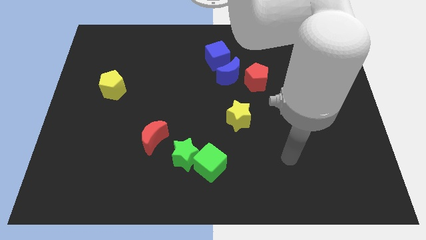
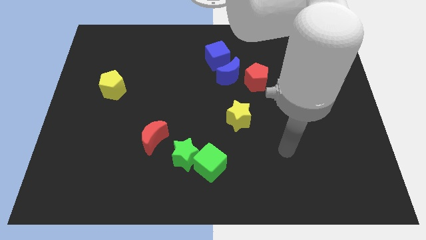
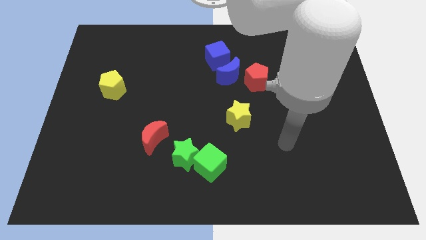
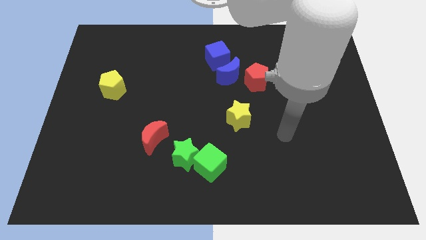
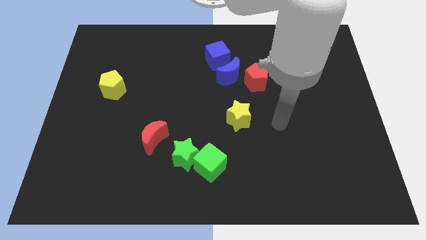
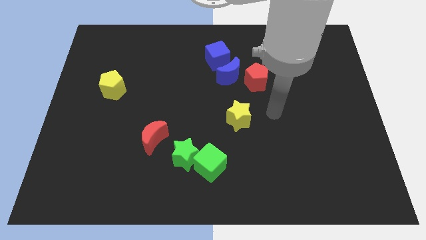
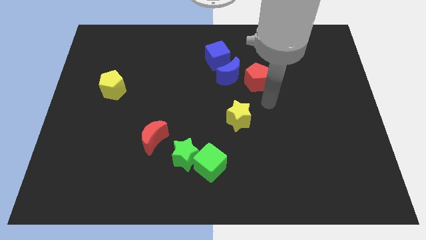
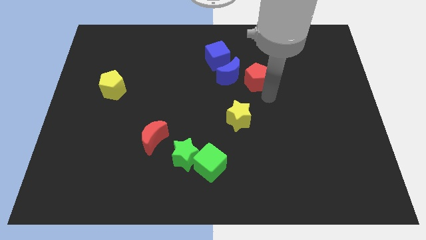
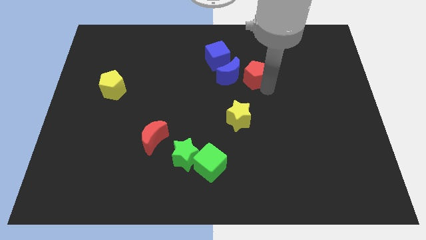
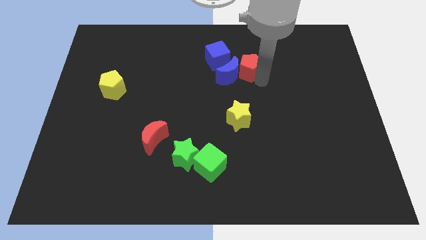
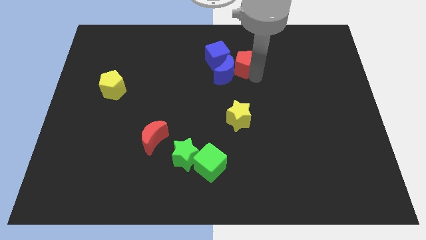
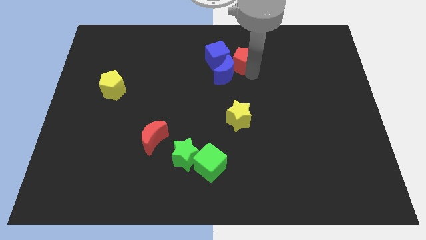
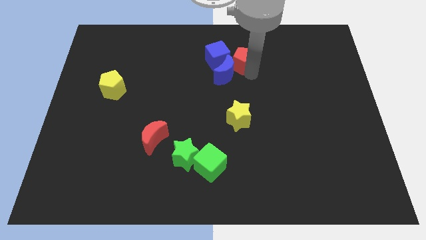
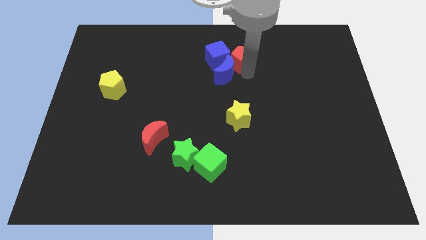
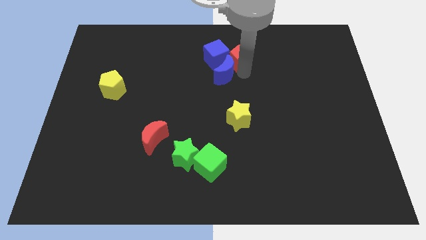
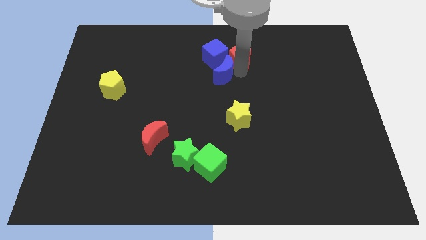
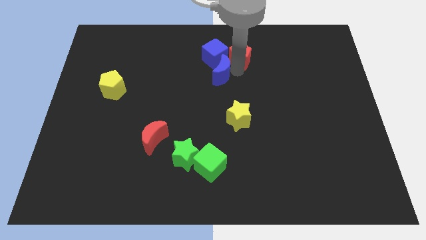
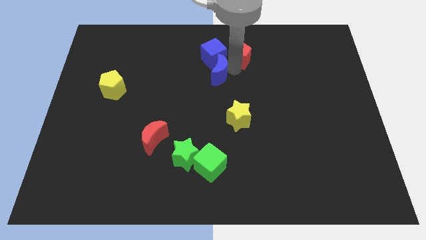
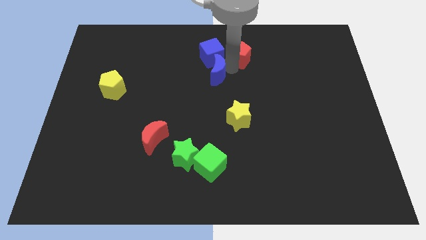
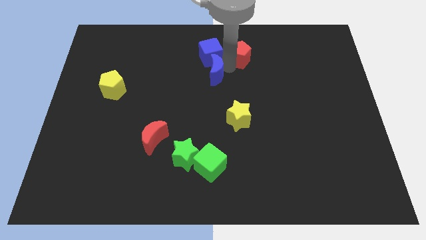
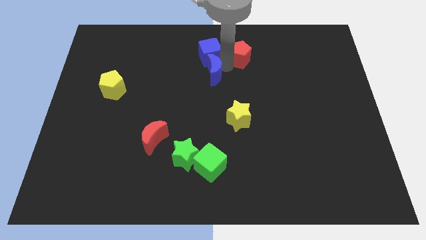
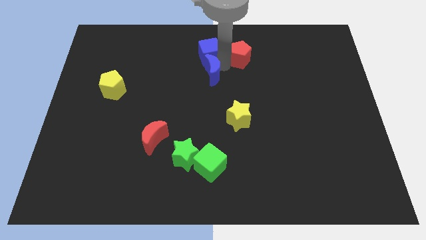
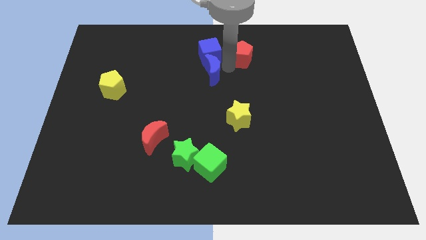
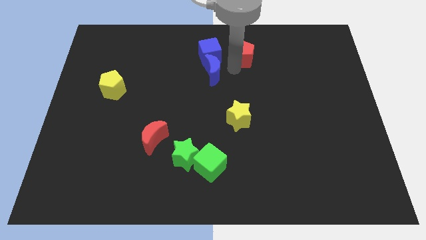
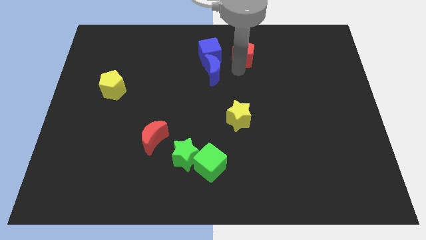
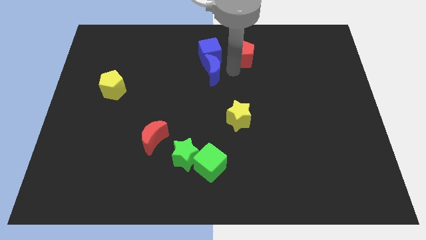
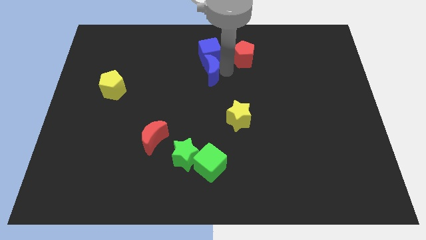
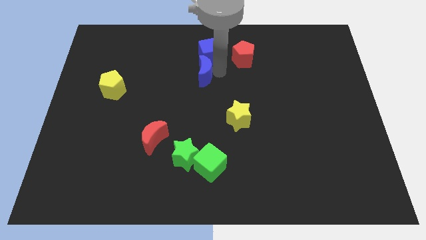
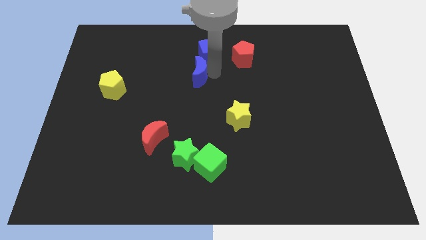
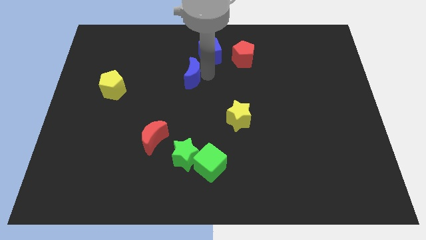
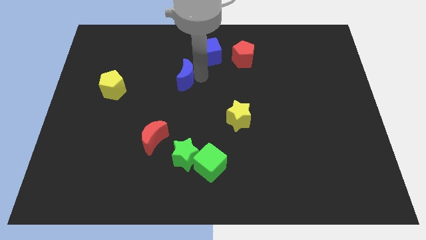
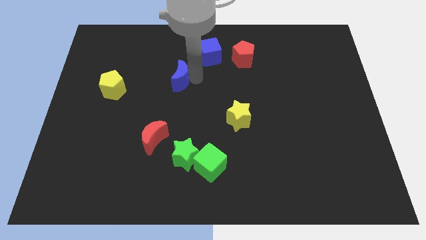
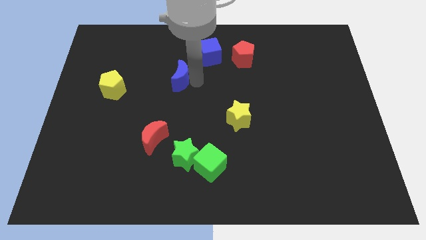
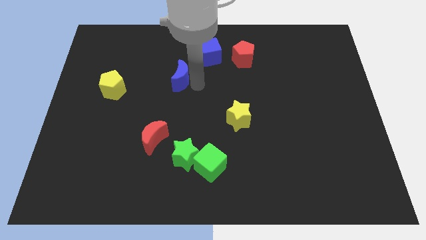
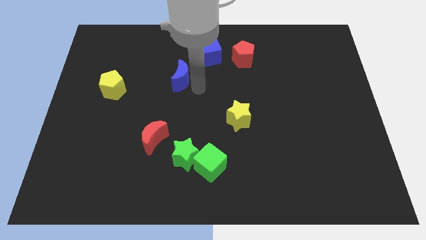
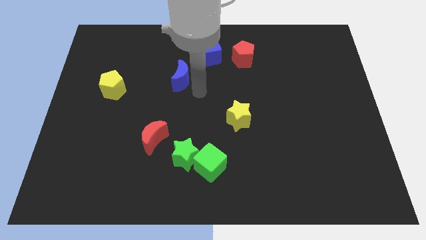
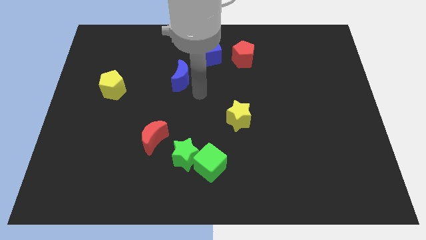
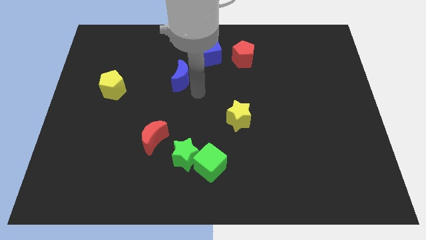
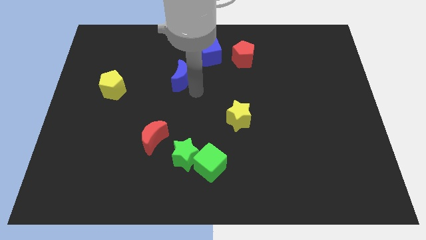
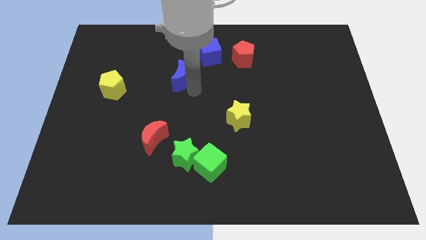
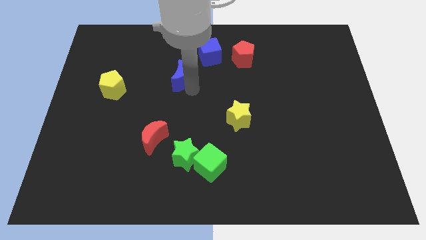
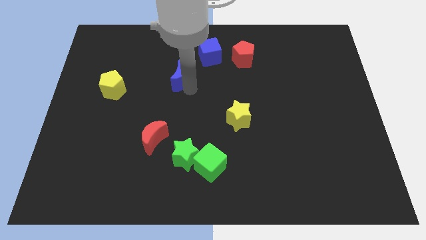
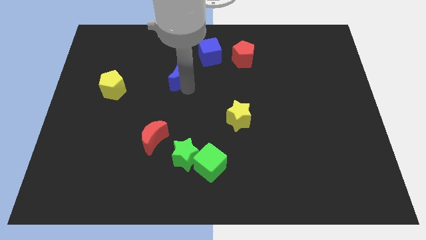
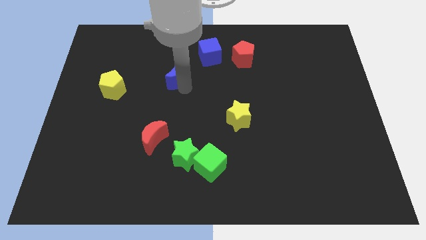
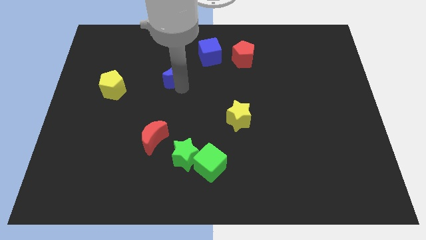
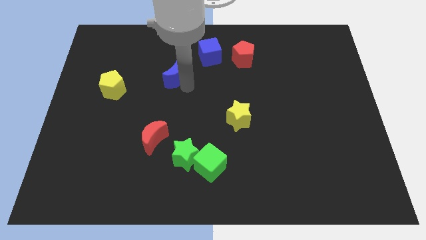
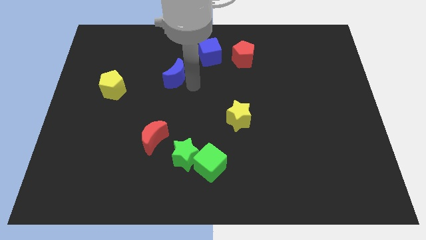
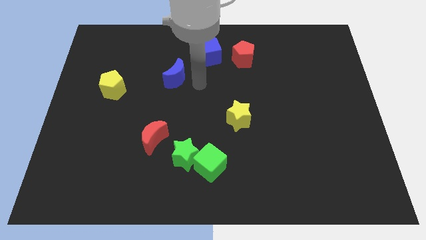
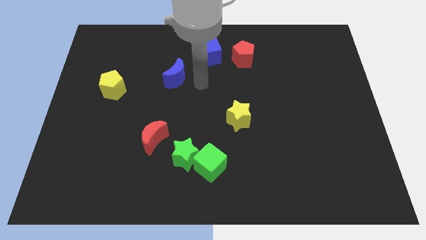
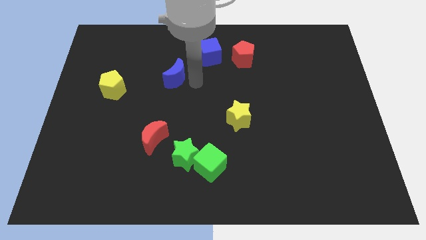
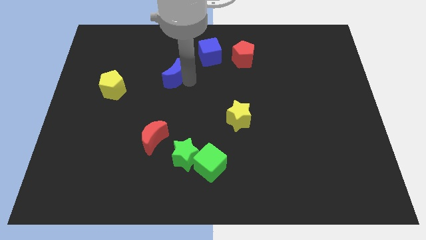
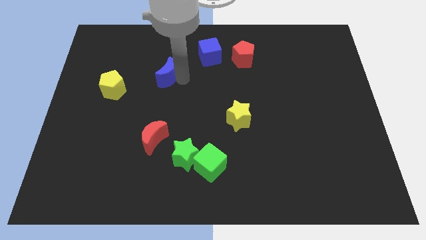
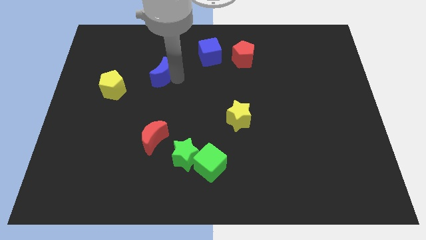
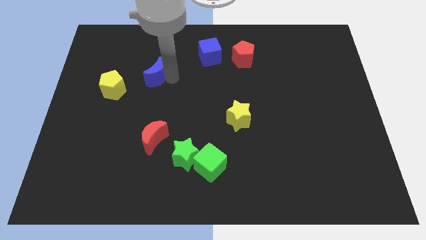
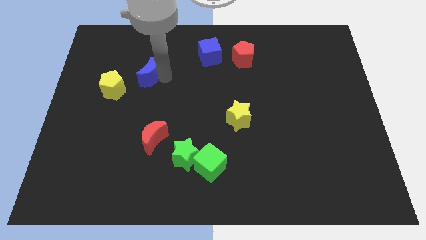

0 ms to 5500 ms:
push the blue moon to the left

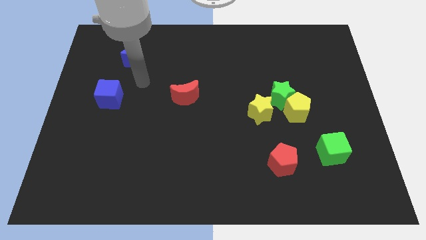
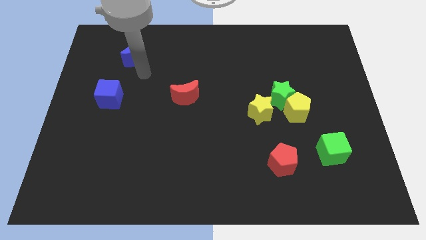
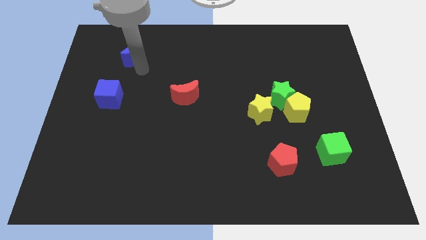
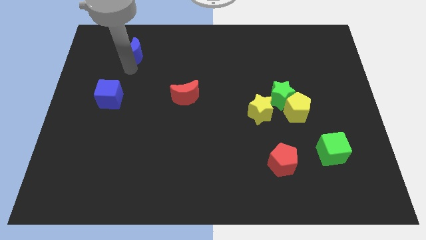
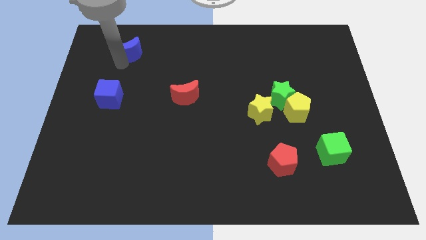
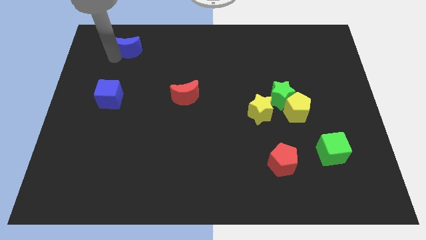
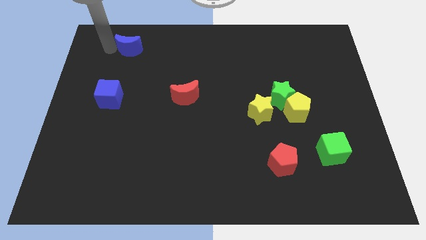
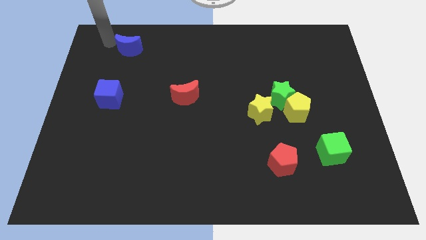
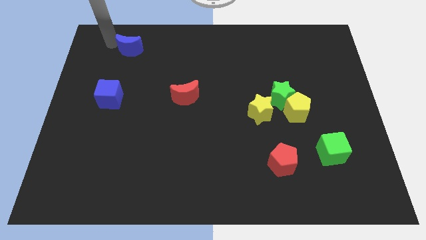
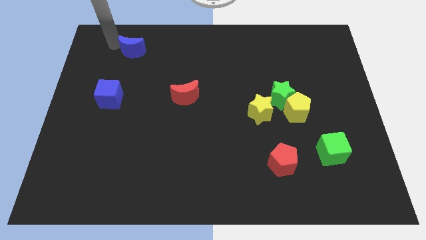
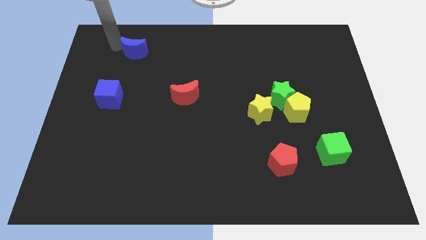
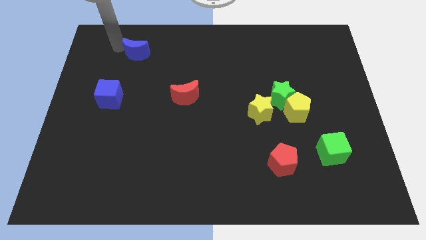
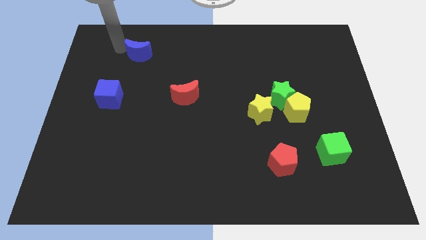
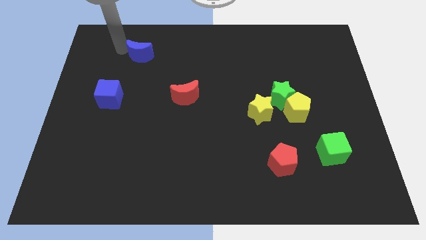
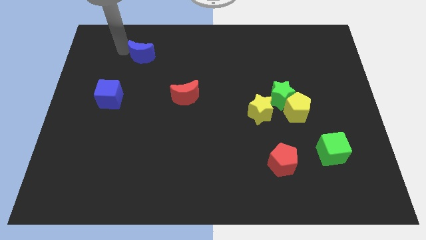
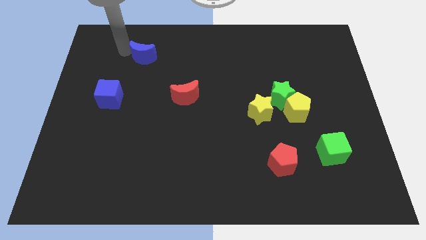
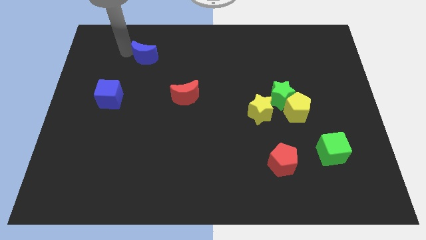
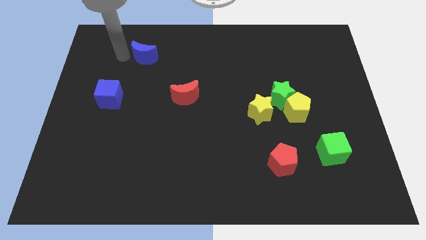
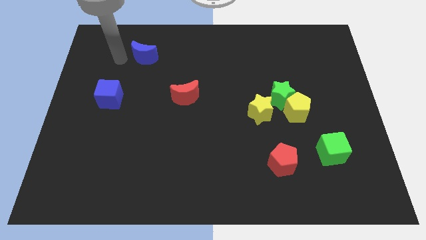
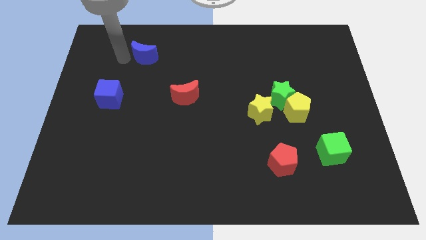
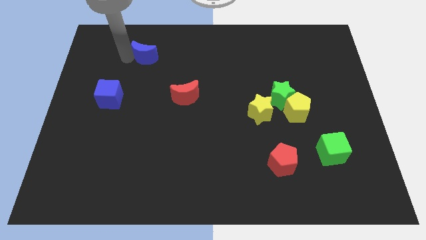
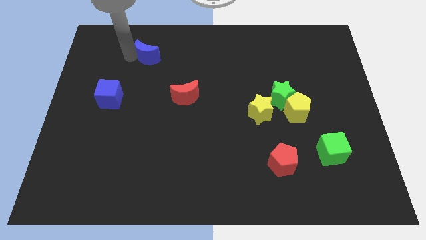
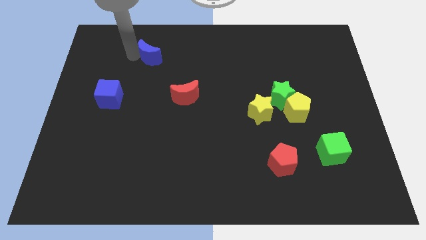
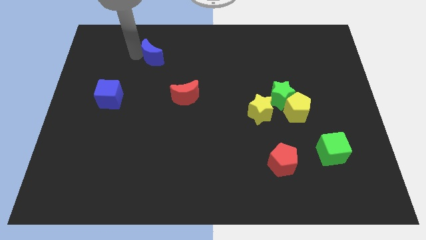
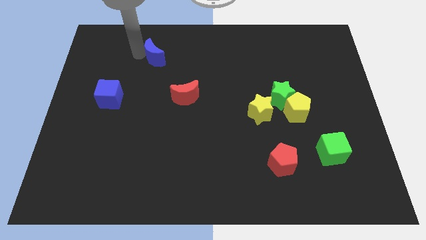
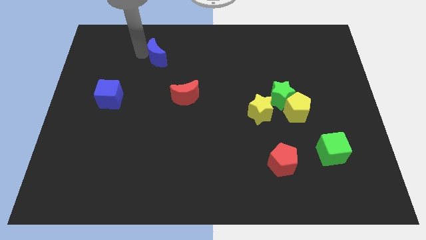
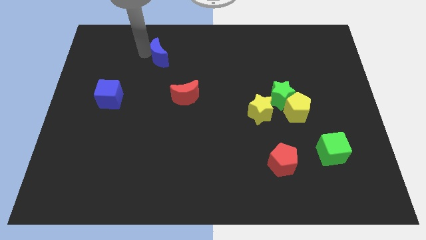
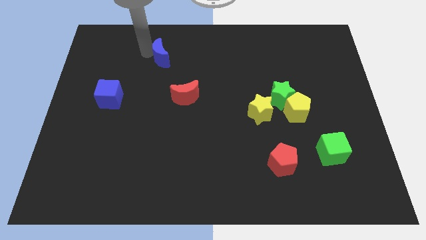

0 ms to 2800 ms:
slide the blue moon slightly right
